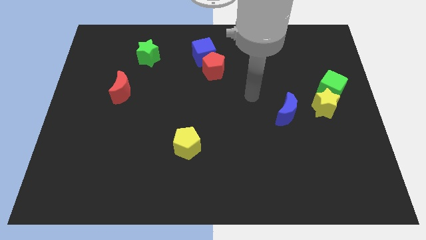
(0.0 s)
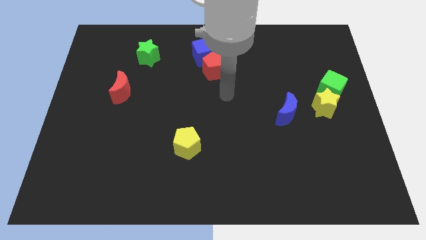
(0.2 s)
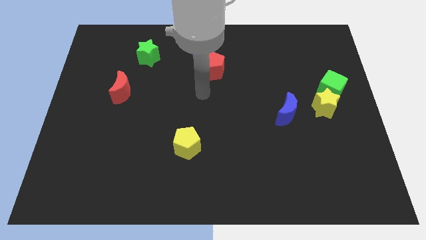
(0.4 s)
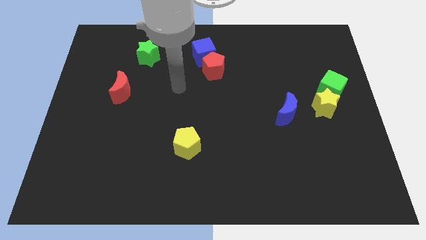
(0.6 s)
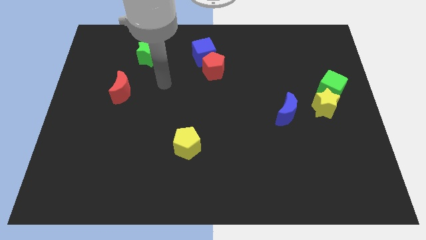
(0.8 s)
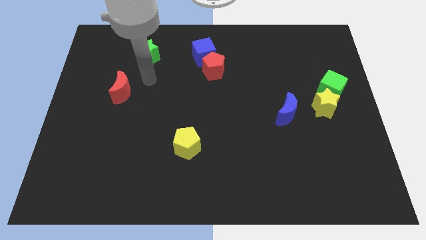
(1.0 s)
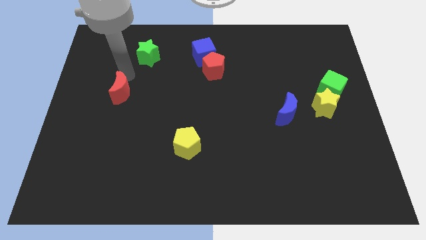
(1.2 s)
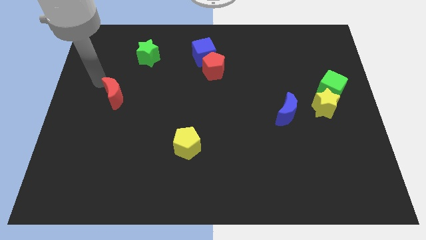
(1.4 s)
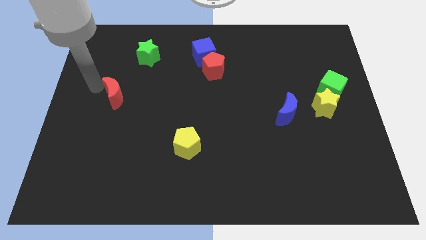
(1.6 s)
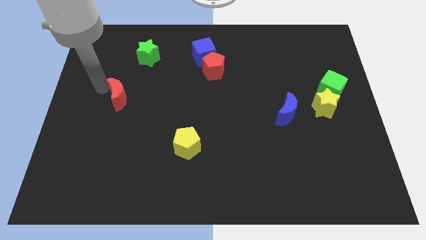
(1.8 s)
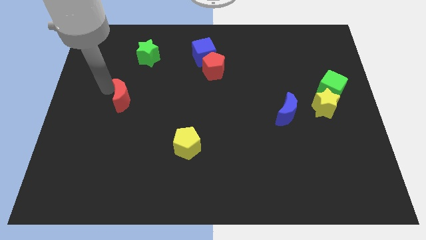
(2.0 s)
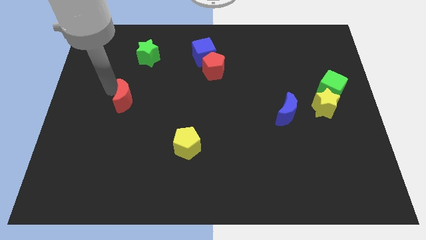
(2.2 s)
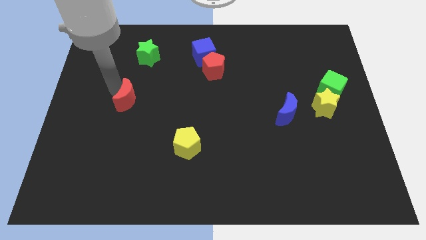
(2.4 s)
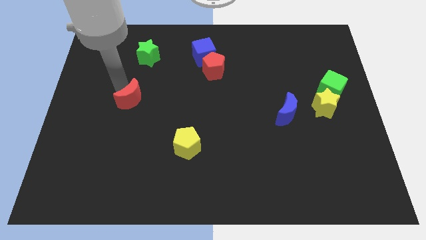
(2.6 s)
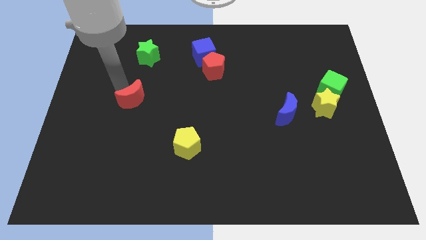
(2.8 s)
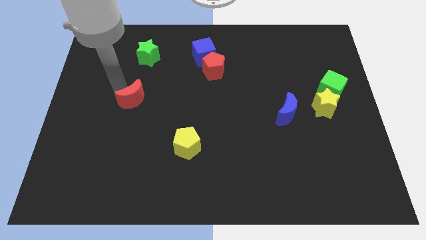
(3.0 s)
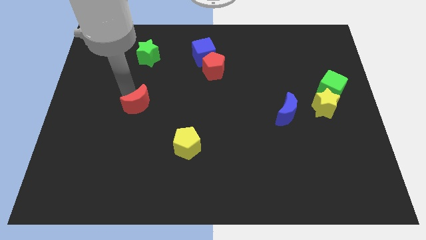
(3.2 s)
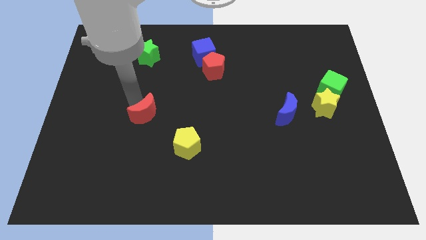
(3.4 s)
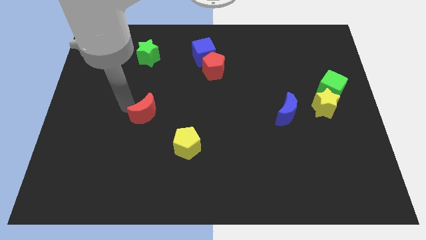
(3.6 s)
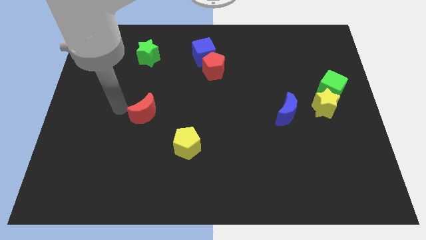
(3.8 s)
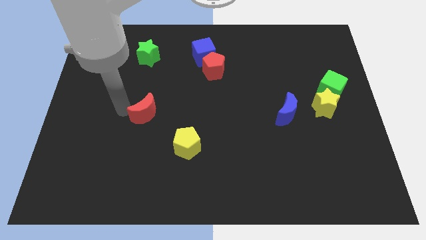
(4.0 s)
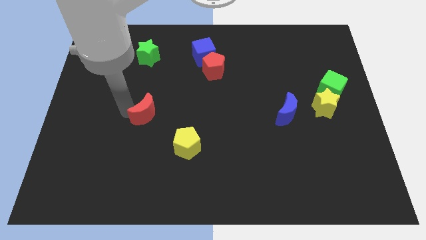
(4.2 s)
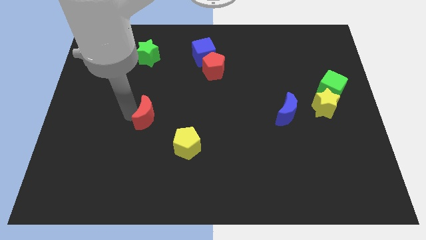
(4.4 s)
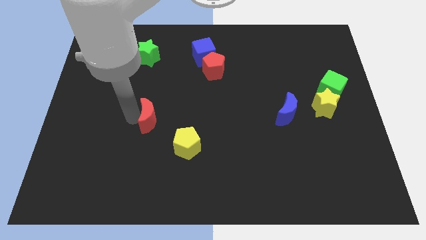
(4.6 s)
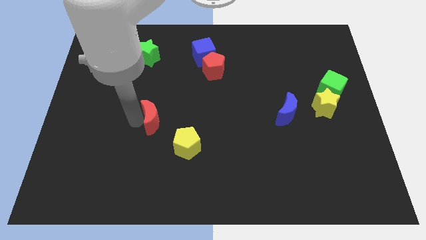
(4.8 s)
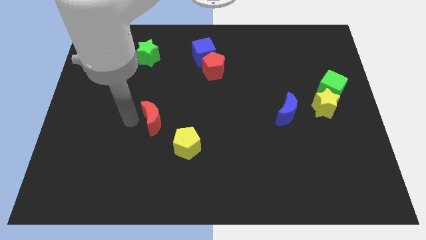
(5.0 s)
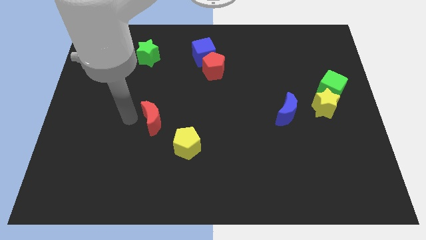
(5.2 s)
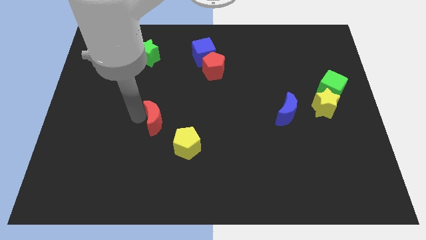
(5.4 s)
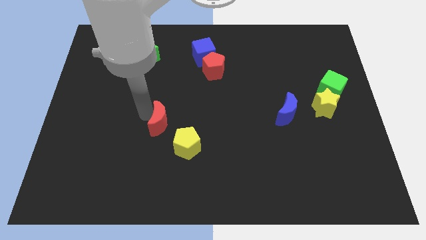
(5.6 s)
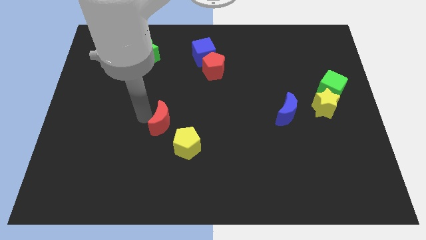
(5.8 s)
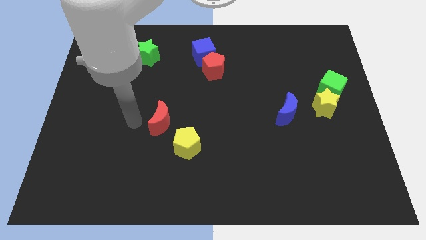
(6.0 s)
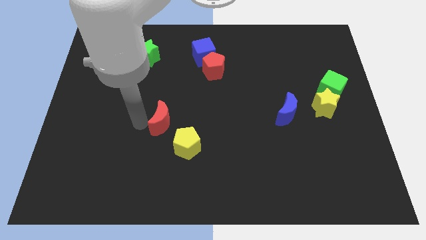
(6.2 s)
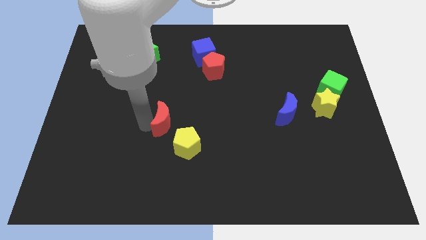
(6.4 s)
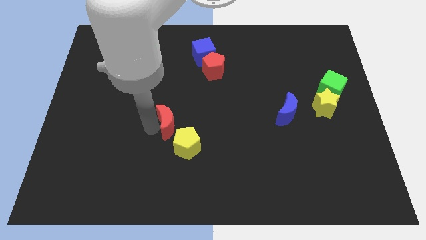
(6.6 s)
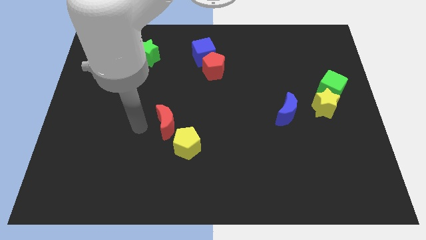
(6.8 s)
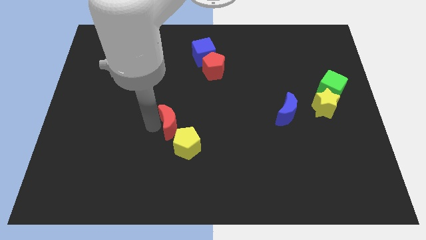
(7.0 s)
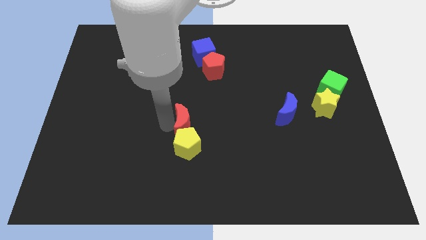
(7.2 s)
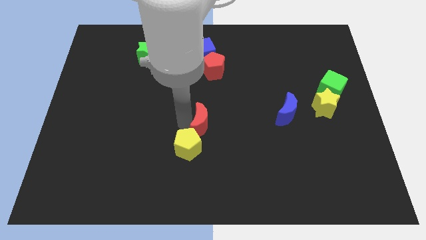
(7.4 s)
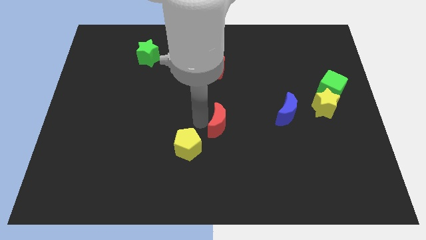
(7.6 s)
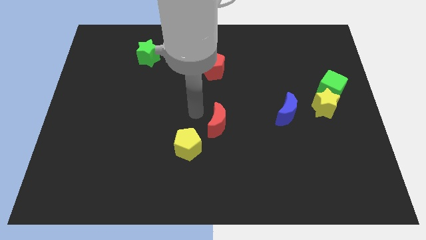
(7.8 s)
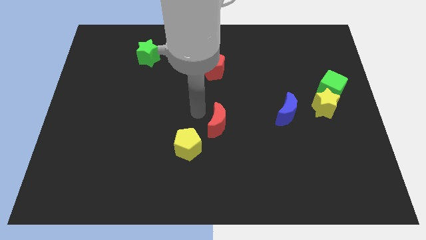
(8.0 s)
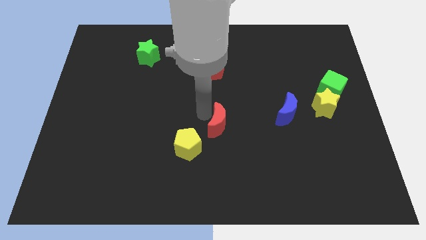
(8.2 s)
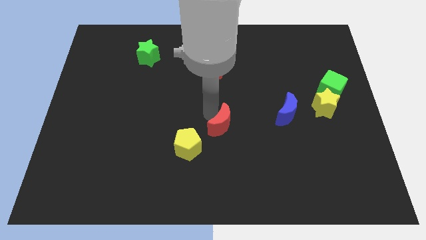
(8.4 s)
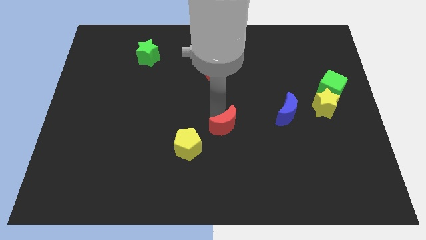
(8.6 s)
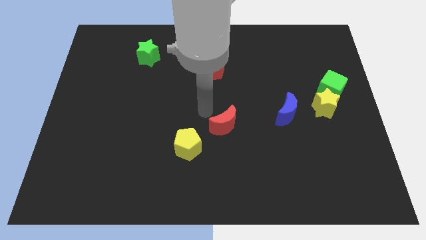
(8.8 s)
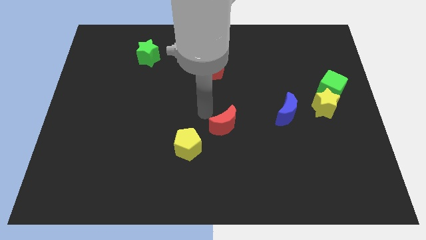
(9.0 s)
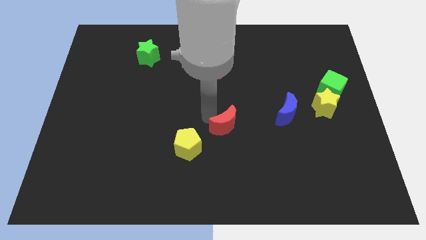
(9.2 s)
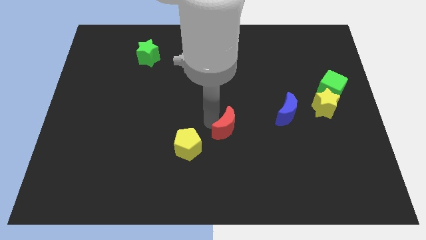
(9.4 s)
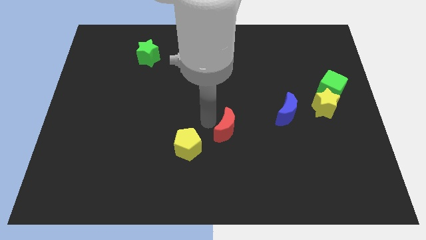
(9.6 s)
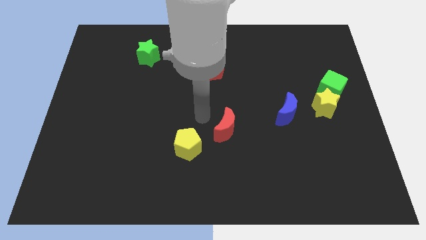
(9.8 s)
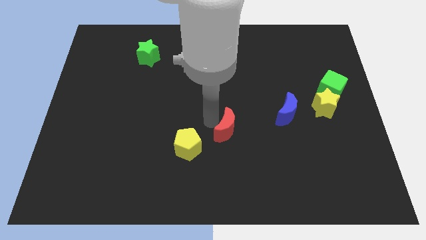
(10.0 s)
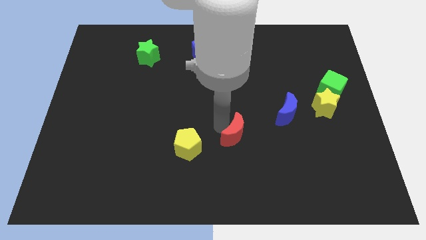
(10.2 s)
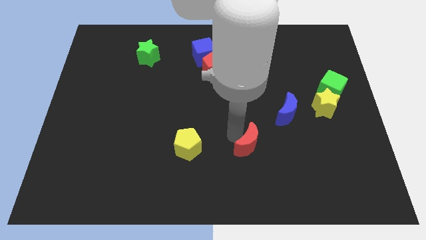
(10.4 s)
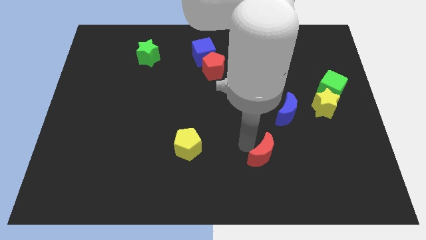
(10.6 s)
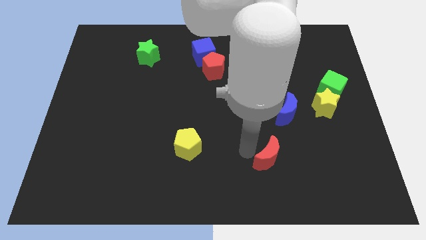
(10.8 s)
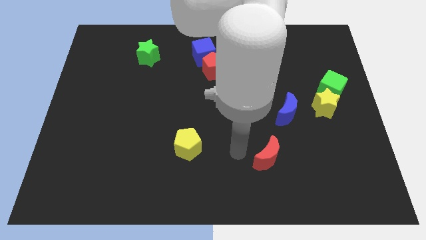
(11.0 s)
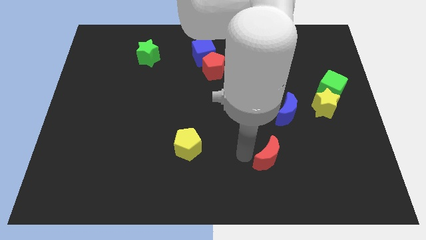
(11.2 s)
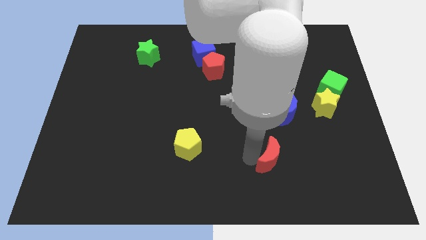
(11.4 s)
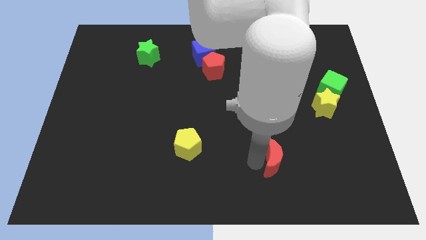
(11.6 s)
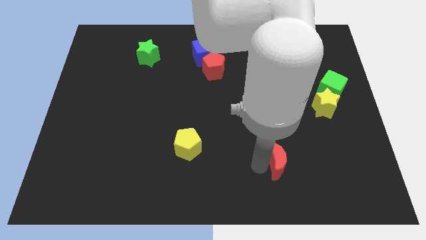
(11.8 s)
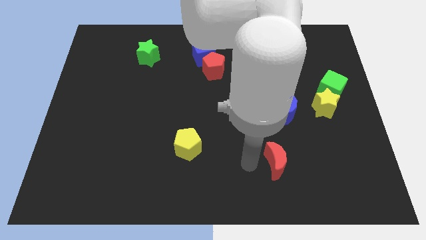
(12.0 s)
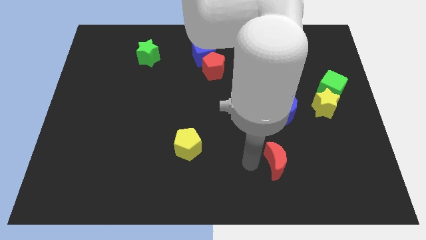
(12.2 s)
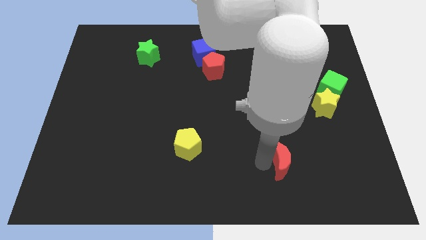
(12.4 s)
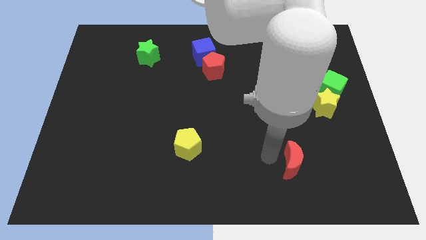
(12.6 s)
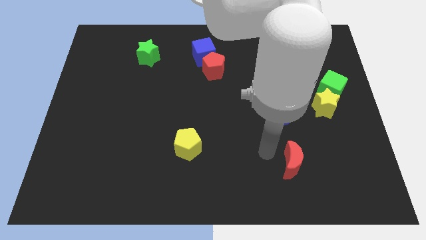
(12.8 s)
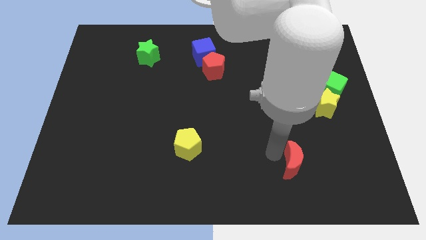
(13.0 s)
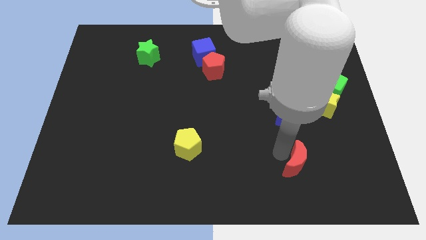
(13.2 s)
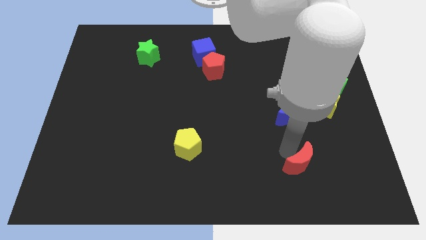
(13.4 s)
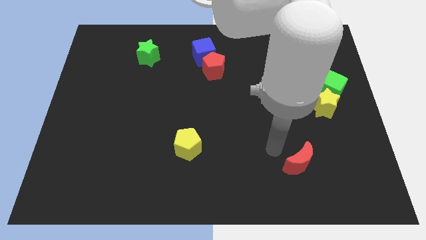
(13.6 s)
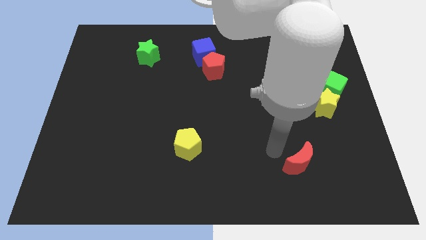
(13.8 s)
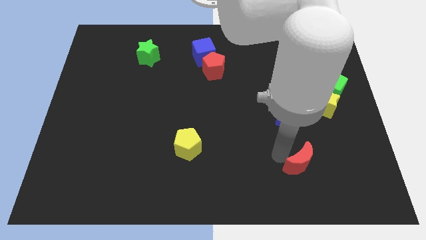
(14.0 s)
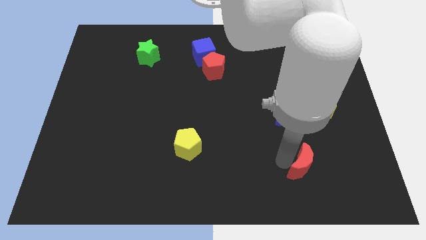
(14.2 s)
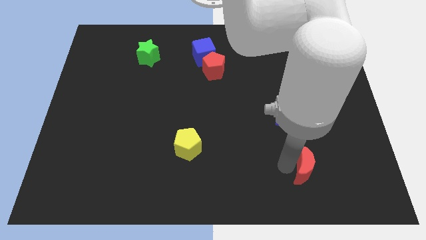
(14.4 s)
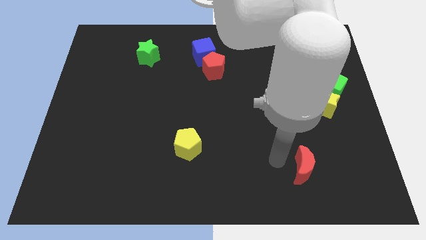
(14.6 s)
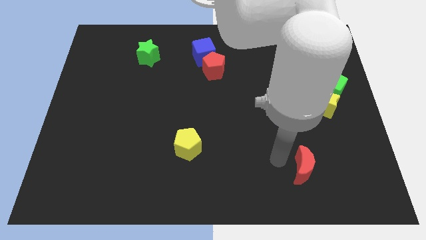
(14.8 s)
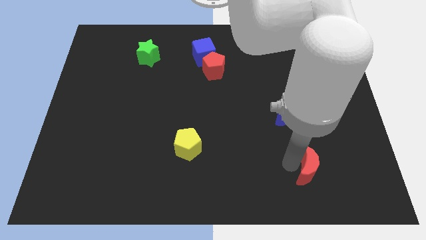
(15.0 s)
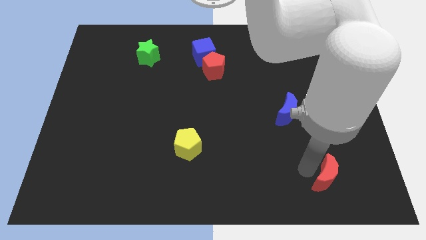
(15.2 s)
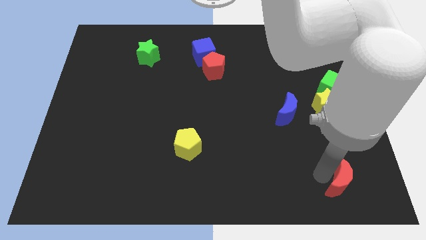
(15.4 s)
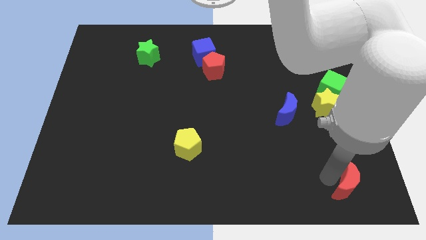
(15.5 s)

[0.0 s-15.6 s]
slide the red moon to the bottom right
